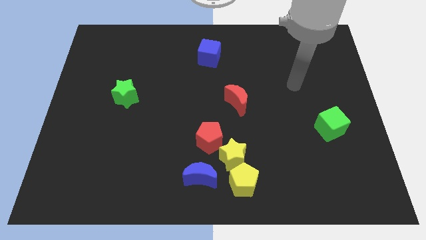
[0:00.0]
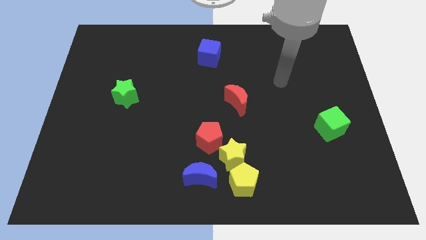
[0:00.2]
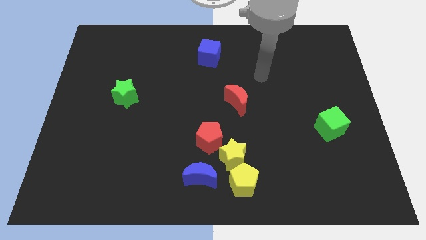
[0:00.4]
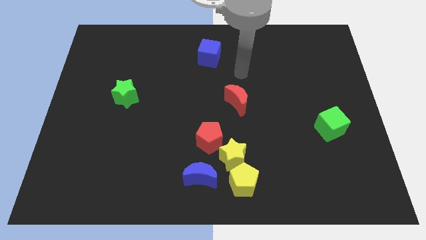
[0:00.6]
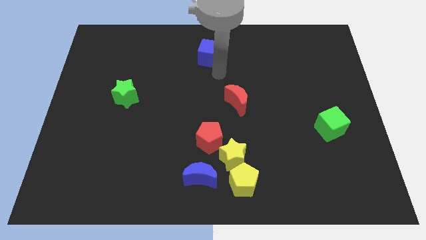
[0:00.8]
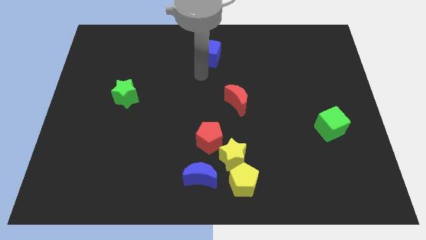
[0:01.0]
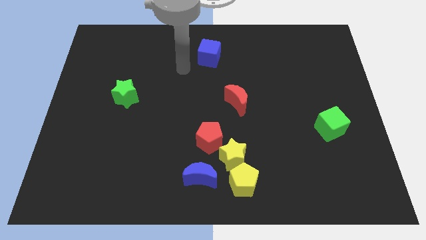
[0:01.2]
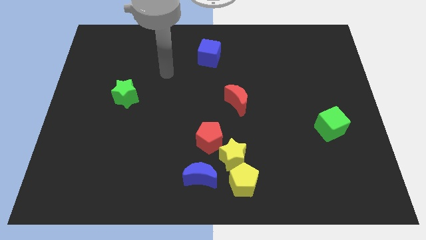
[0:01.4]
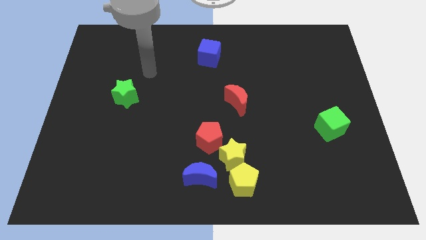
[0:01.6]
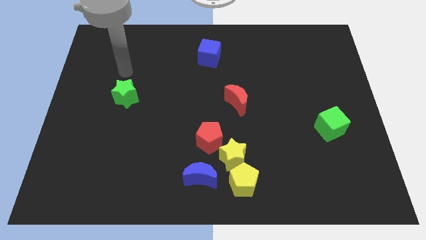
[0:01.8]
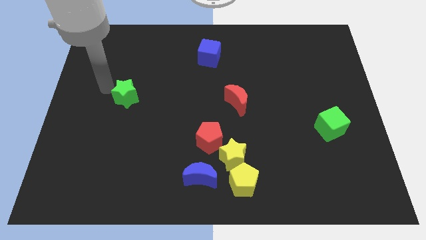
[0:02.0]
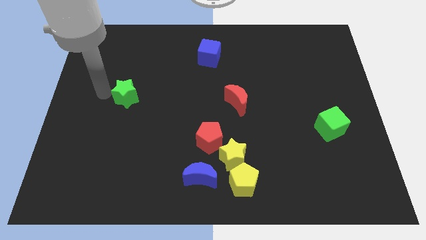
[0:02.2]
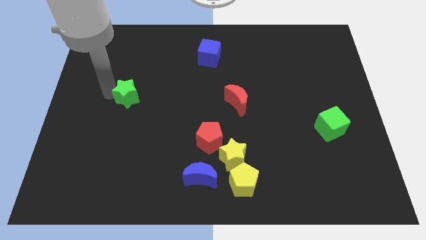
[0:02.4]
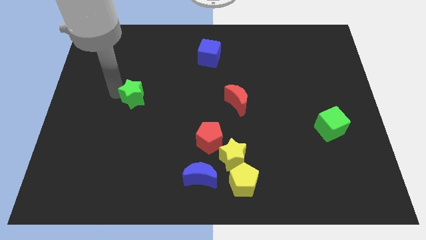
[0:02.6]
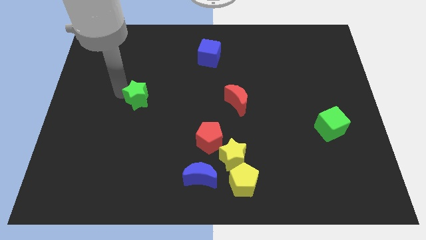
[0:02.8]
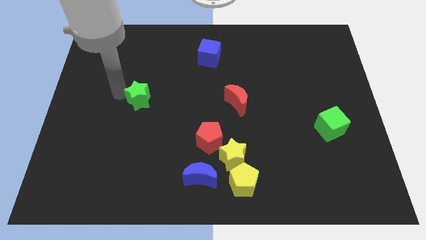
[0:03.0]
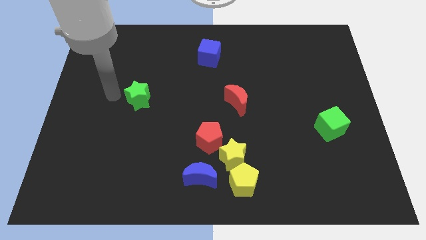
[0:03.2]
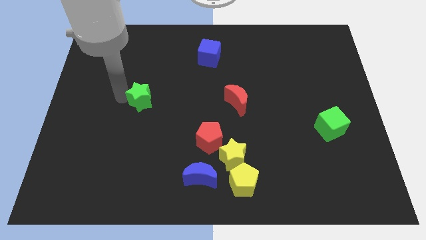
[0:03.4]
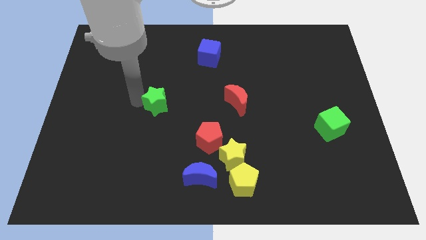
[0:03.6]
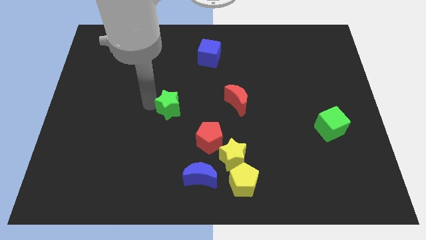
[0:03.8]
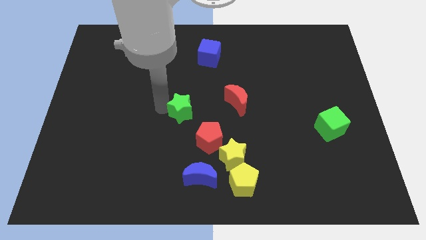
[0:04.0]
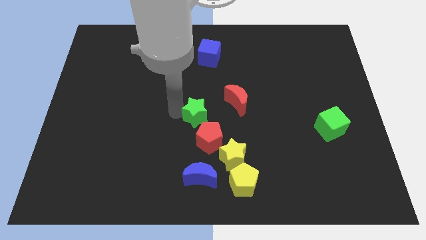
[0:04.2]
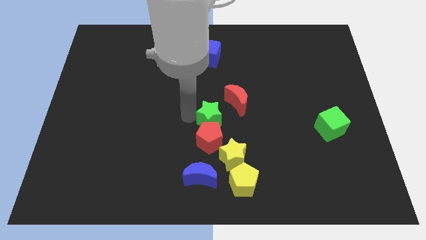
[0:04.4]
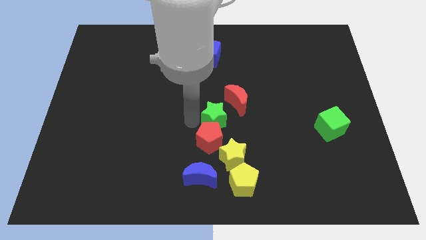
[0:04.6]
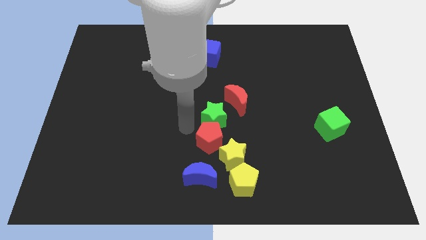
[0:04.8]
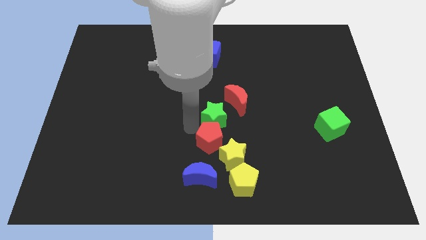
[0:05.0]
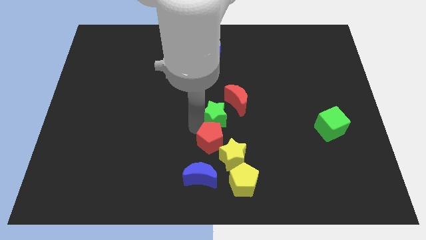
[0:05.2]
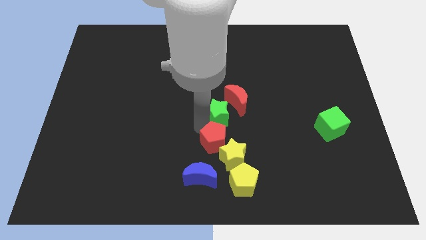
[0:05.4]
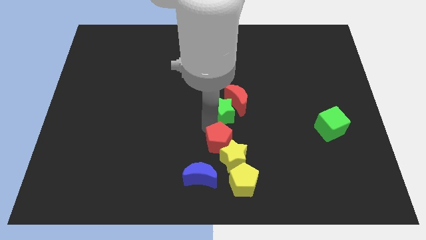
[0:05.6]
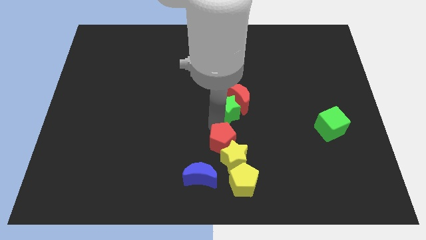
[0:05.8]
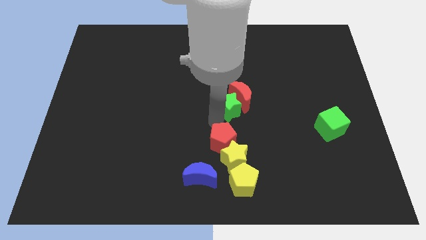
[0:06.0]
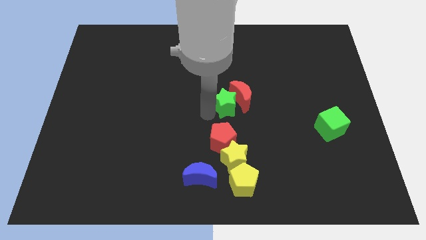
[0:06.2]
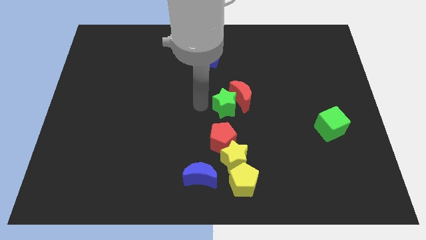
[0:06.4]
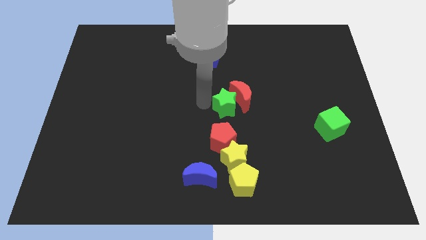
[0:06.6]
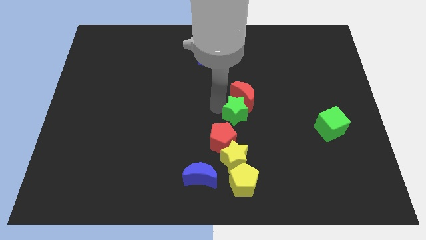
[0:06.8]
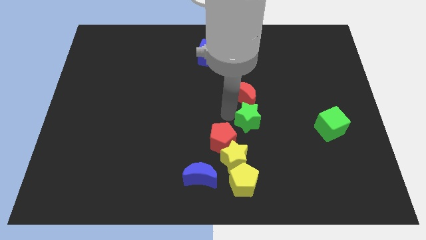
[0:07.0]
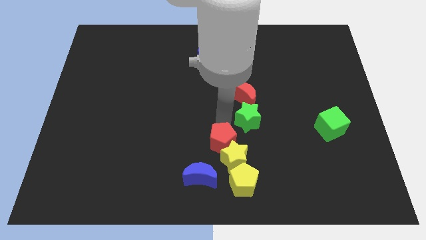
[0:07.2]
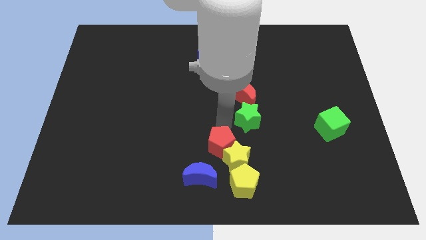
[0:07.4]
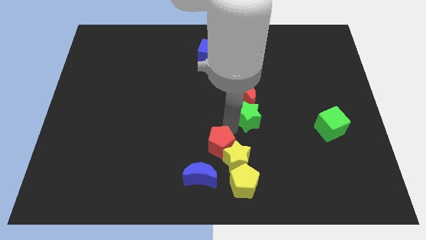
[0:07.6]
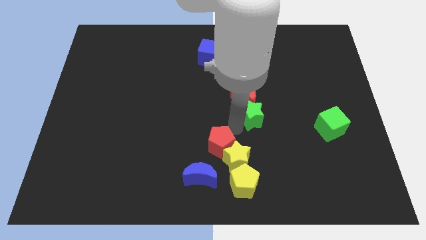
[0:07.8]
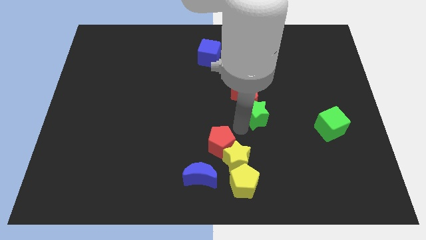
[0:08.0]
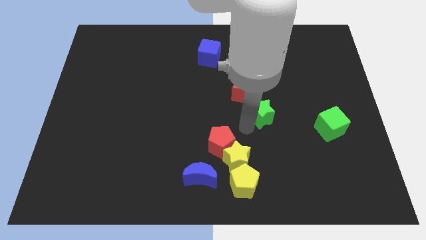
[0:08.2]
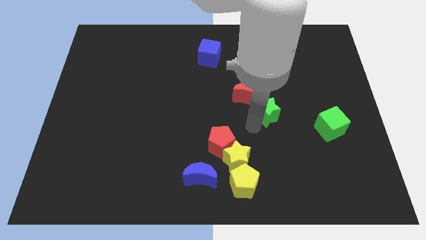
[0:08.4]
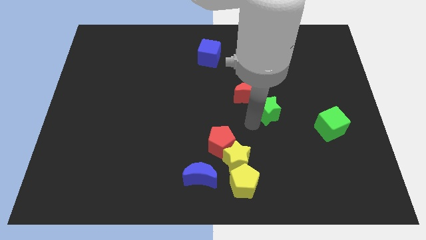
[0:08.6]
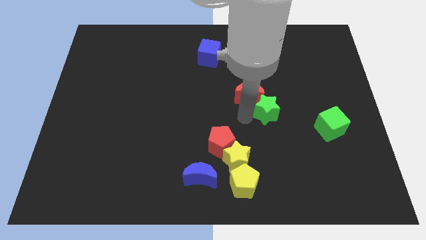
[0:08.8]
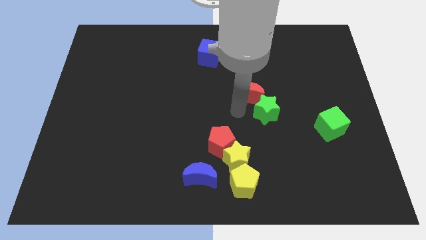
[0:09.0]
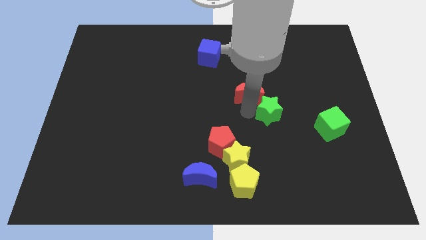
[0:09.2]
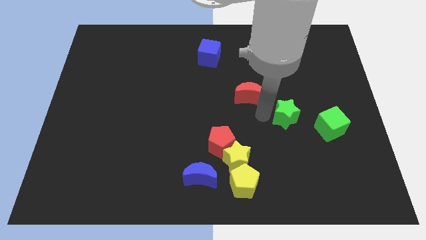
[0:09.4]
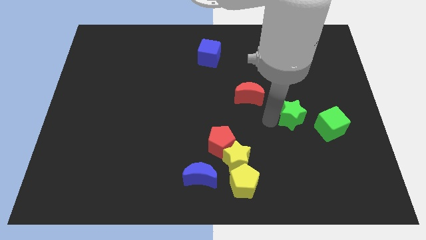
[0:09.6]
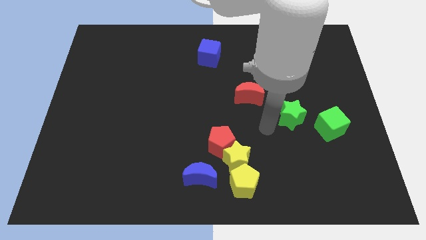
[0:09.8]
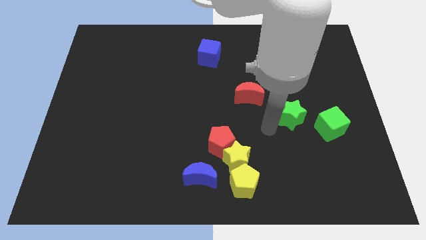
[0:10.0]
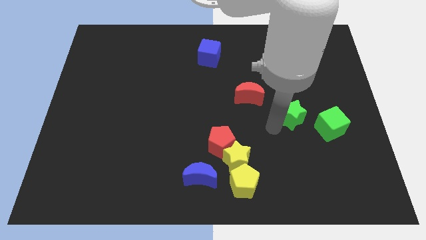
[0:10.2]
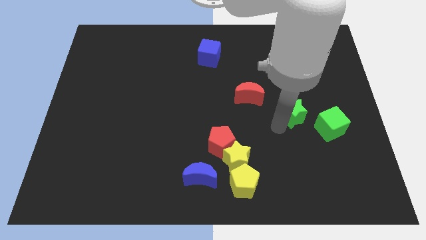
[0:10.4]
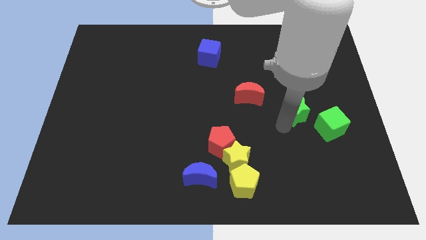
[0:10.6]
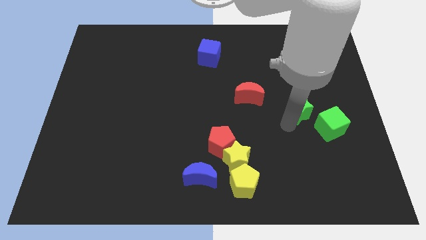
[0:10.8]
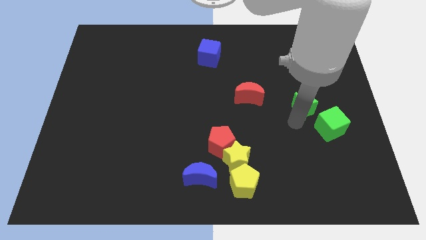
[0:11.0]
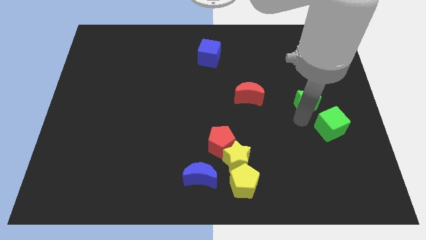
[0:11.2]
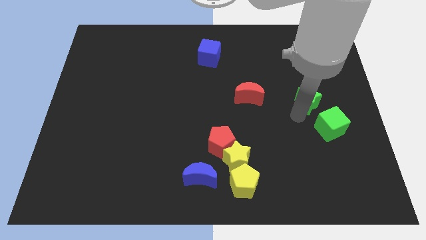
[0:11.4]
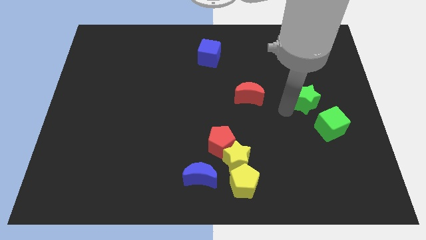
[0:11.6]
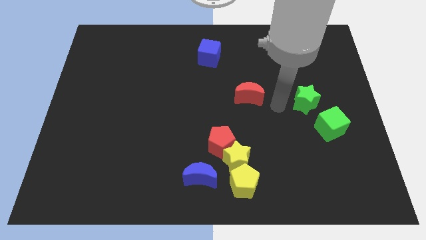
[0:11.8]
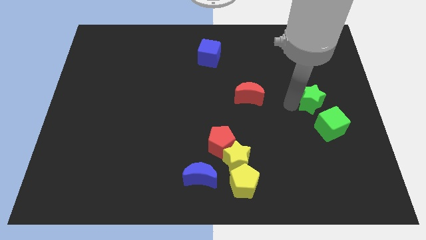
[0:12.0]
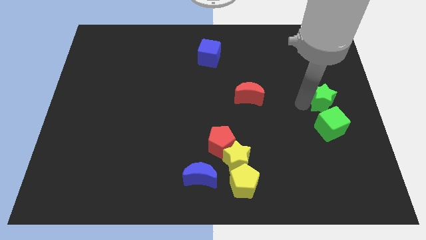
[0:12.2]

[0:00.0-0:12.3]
put the green star to the right side
